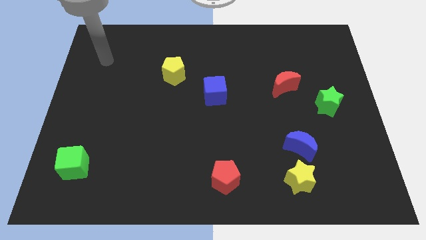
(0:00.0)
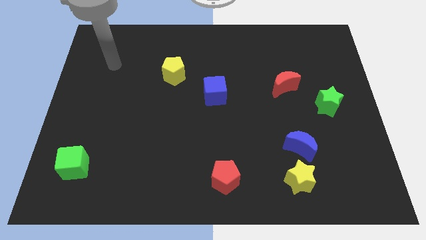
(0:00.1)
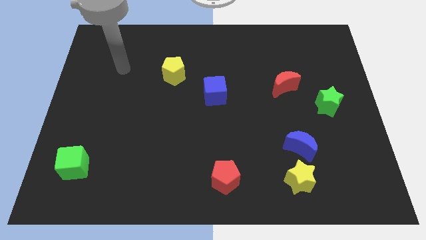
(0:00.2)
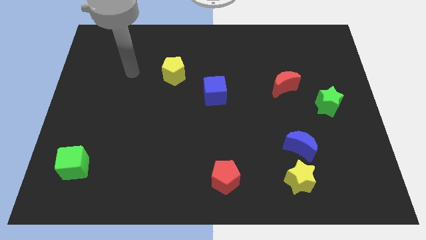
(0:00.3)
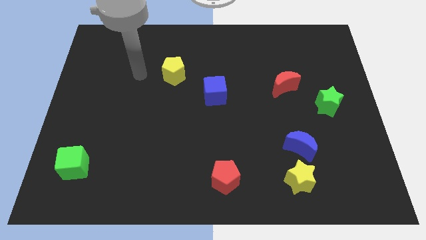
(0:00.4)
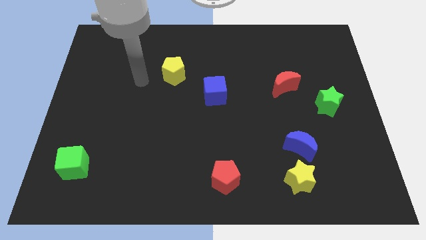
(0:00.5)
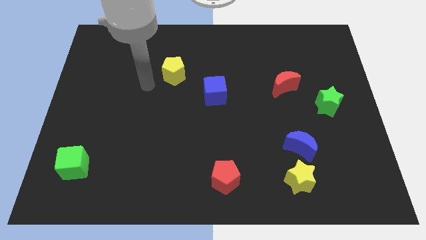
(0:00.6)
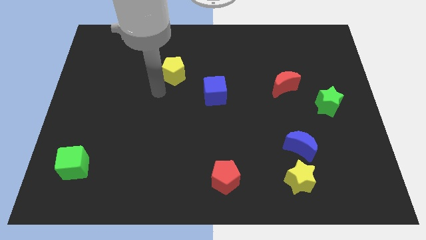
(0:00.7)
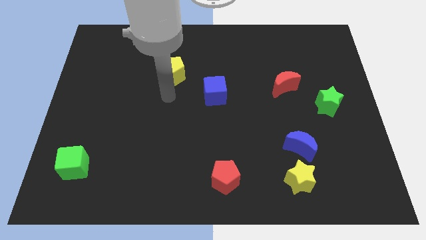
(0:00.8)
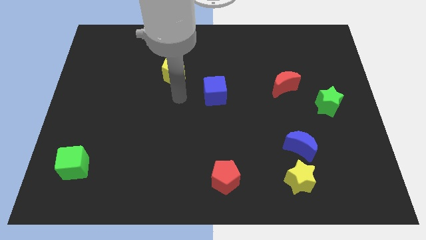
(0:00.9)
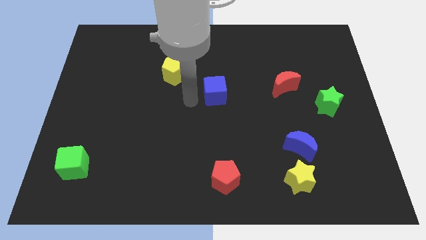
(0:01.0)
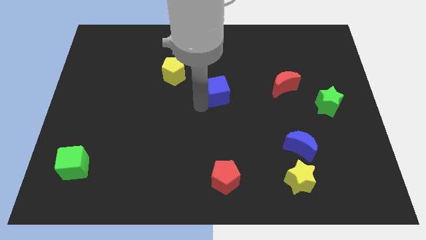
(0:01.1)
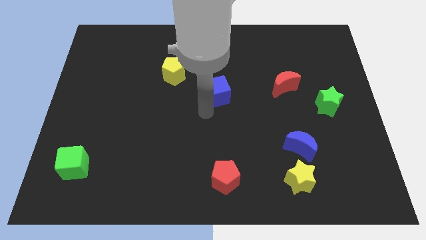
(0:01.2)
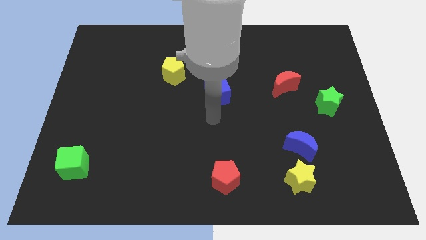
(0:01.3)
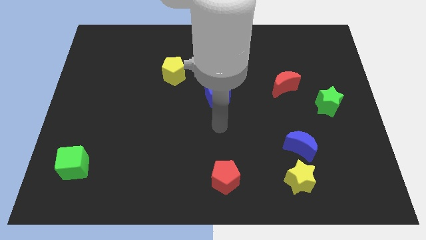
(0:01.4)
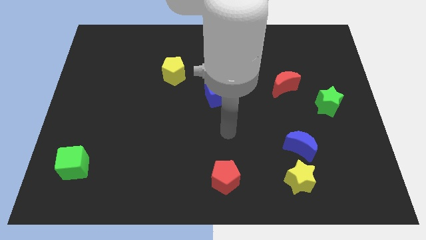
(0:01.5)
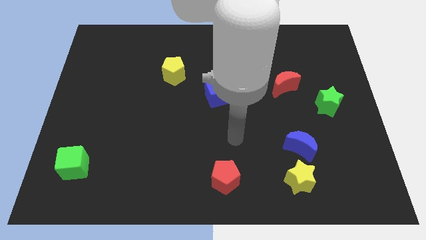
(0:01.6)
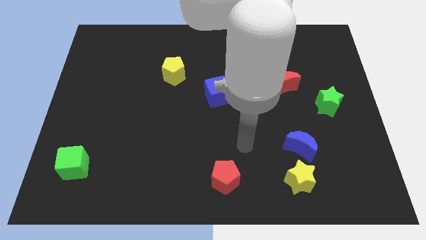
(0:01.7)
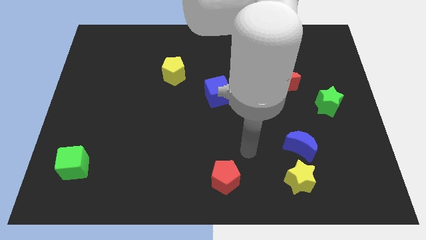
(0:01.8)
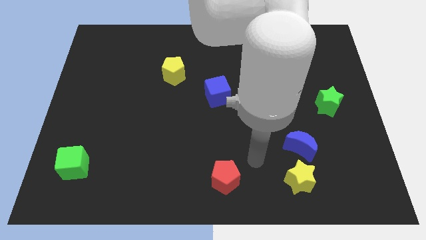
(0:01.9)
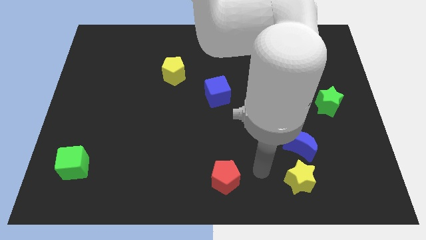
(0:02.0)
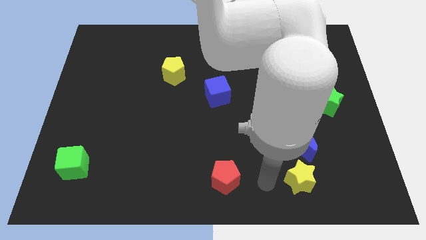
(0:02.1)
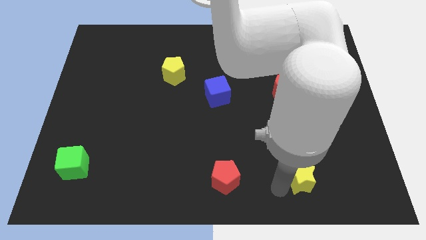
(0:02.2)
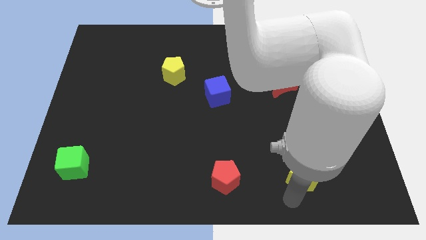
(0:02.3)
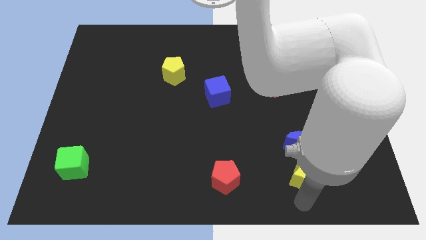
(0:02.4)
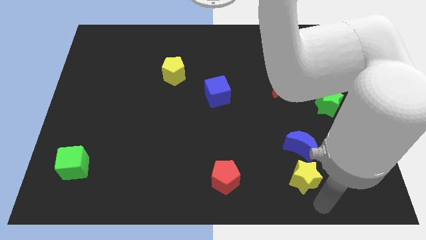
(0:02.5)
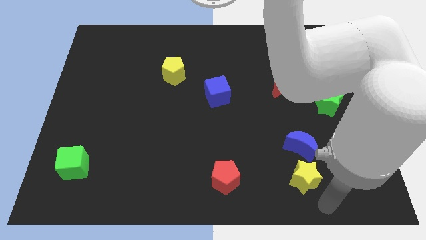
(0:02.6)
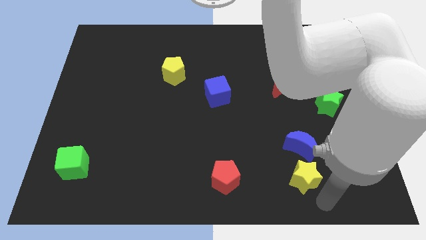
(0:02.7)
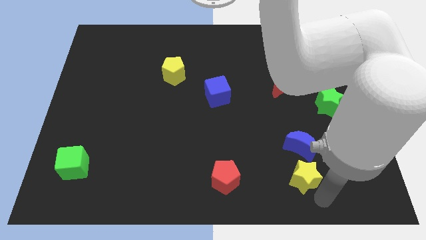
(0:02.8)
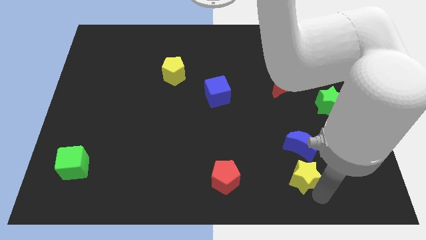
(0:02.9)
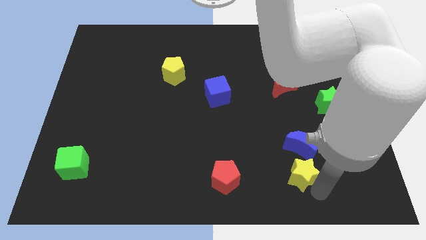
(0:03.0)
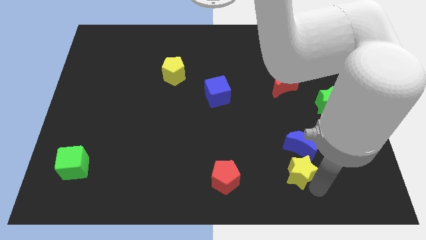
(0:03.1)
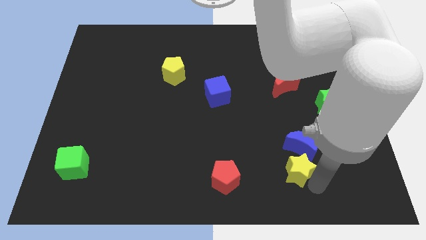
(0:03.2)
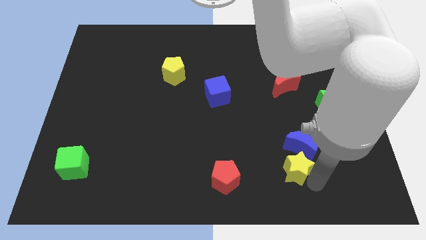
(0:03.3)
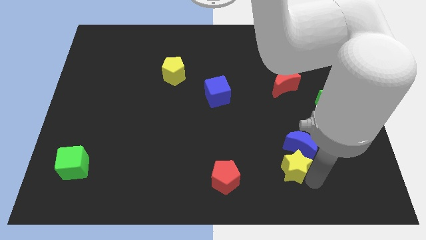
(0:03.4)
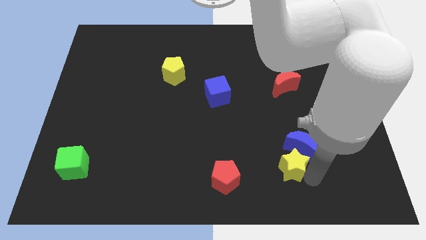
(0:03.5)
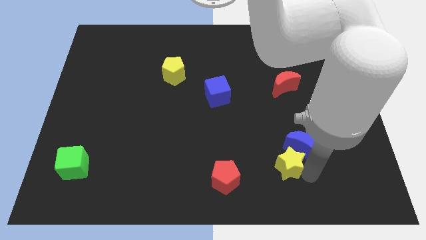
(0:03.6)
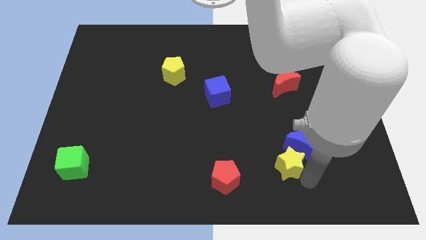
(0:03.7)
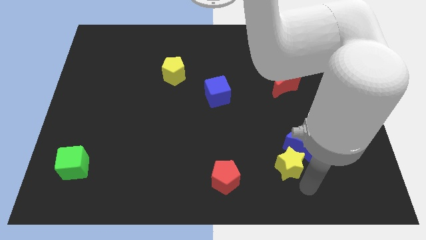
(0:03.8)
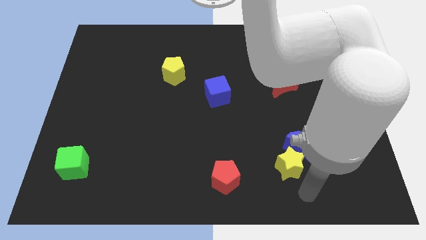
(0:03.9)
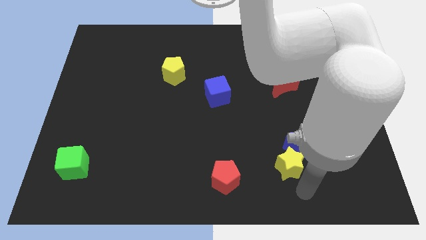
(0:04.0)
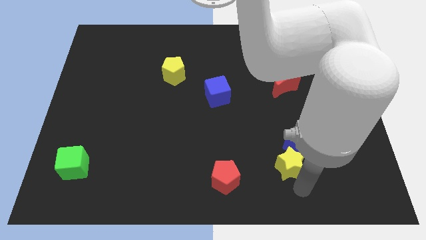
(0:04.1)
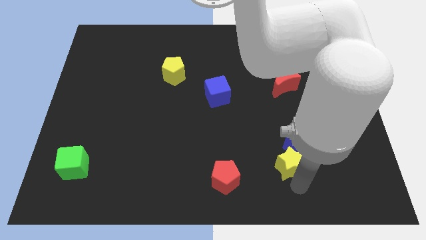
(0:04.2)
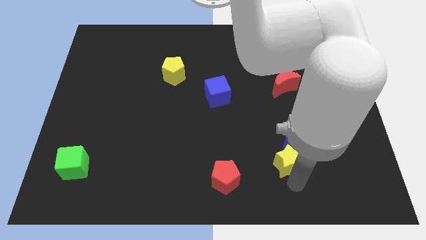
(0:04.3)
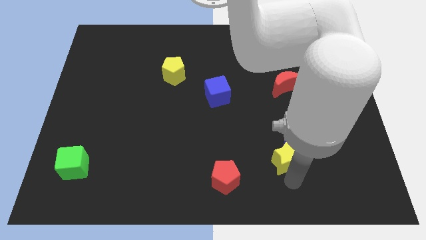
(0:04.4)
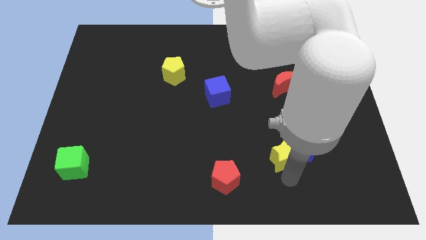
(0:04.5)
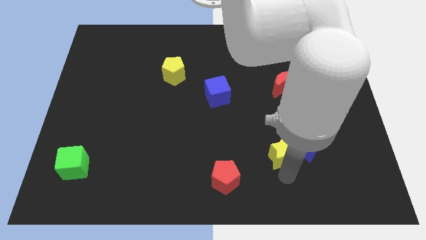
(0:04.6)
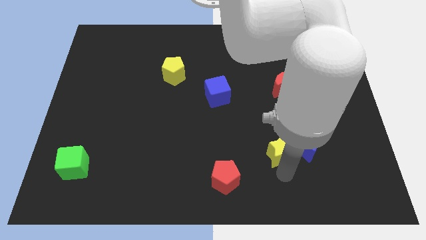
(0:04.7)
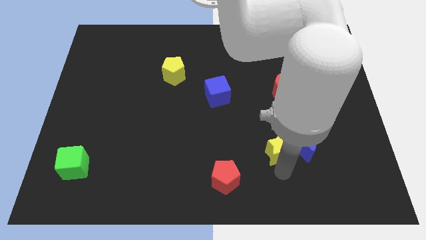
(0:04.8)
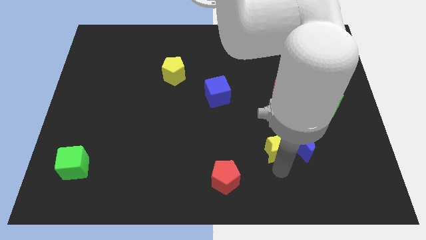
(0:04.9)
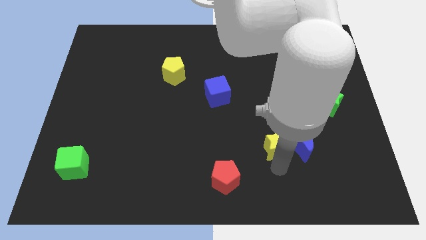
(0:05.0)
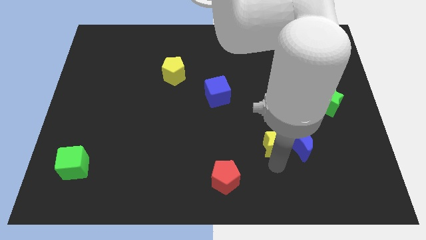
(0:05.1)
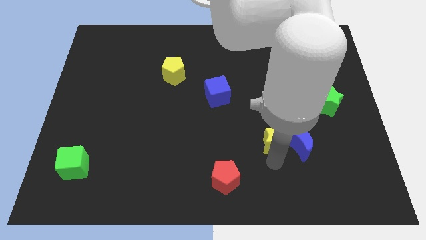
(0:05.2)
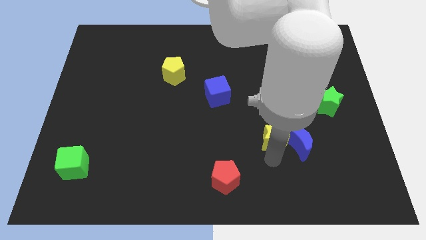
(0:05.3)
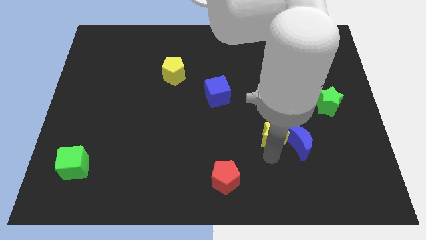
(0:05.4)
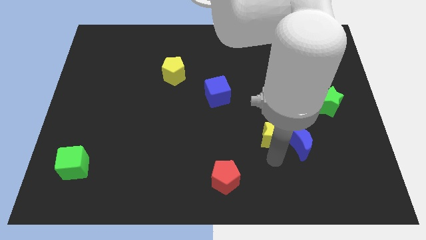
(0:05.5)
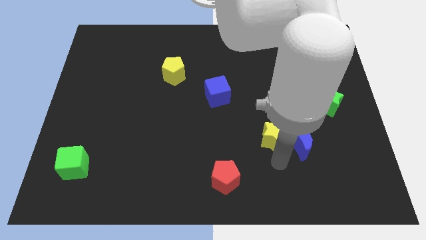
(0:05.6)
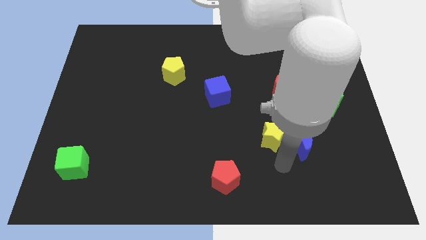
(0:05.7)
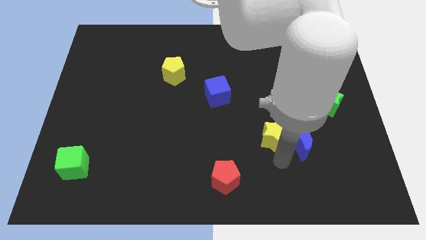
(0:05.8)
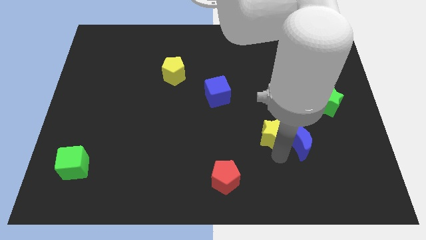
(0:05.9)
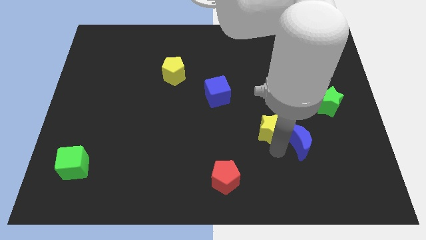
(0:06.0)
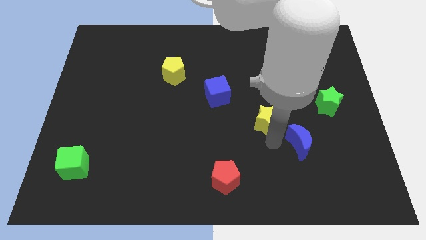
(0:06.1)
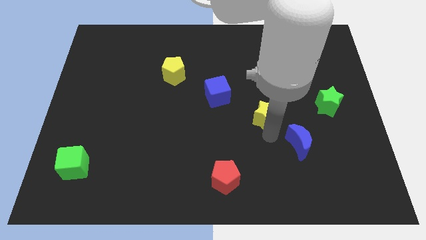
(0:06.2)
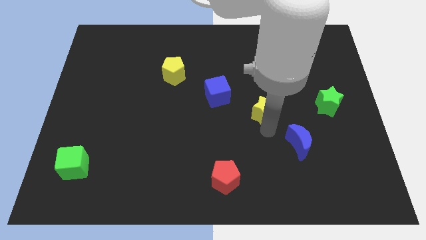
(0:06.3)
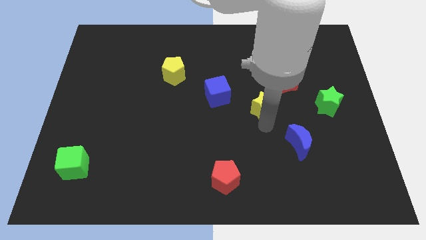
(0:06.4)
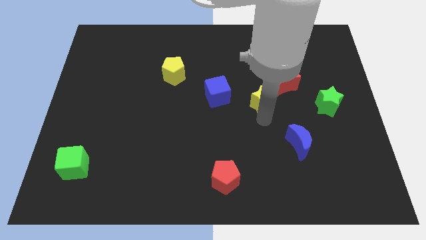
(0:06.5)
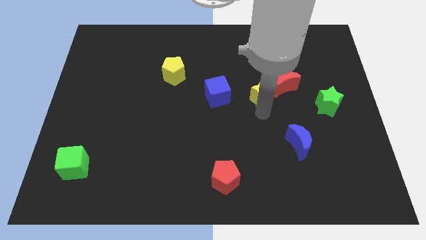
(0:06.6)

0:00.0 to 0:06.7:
move the yellow star upwards

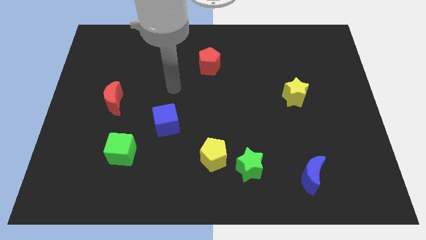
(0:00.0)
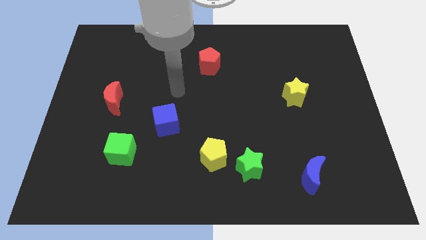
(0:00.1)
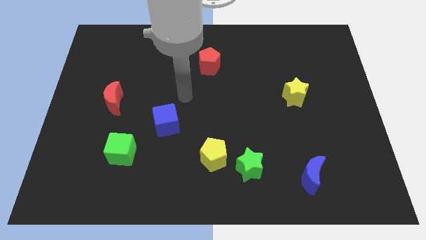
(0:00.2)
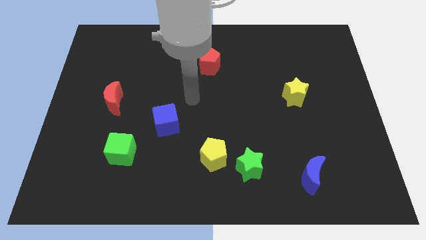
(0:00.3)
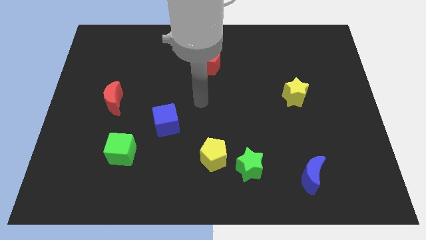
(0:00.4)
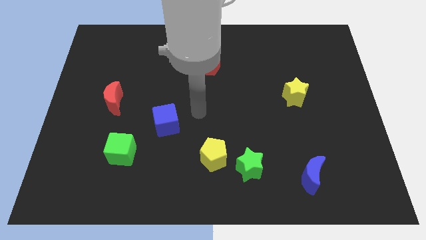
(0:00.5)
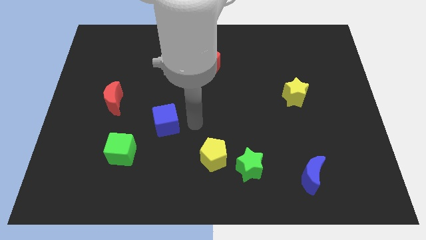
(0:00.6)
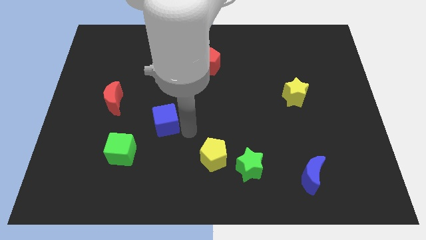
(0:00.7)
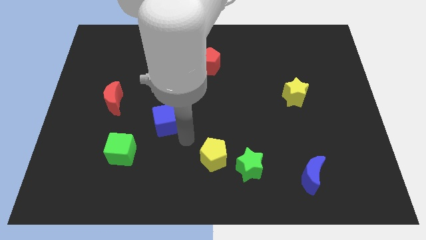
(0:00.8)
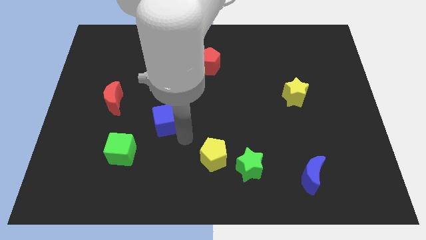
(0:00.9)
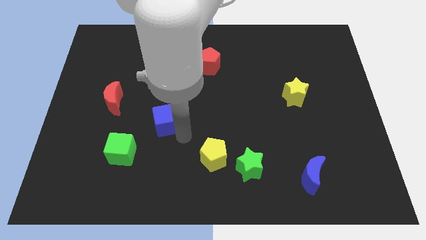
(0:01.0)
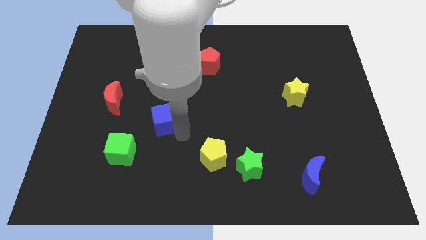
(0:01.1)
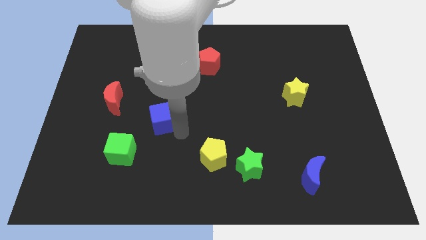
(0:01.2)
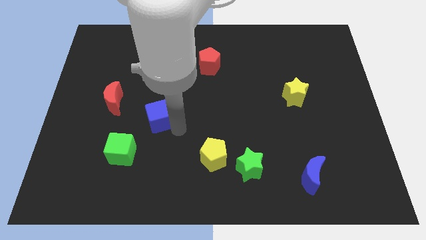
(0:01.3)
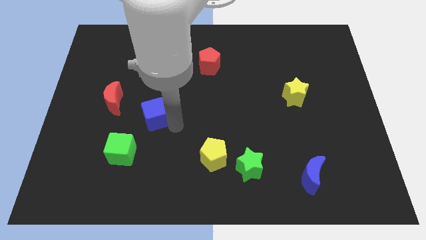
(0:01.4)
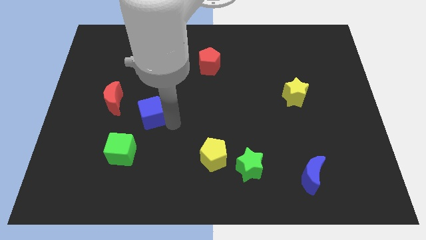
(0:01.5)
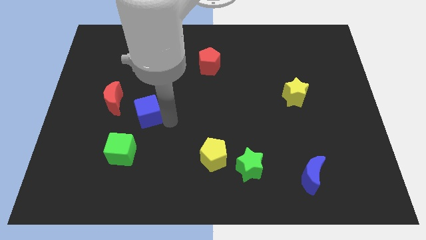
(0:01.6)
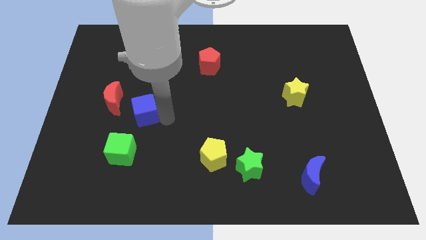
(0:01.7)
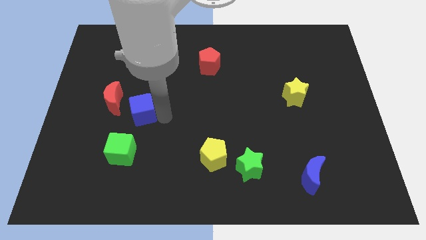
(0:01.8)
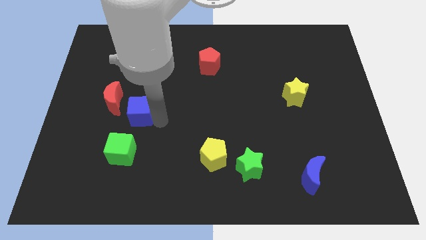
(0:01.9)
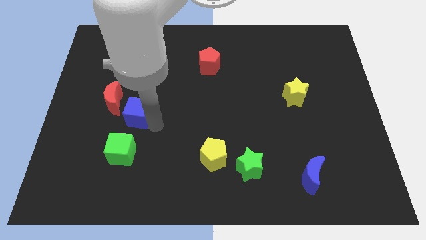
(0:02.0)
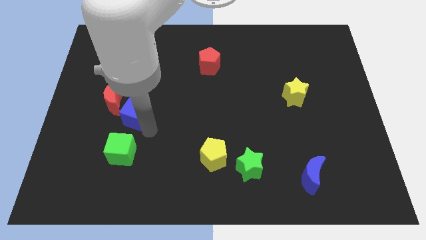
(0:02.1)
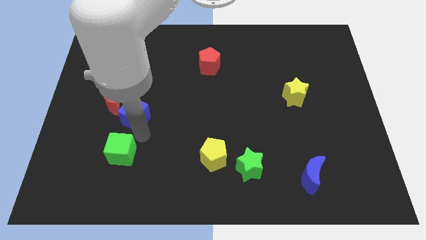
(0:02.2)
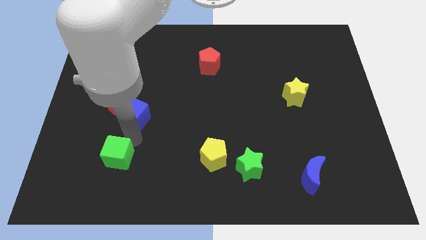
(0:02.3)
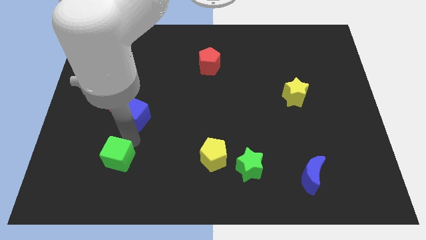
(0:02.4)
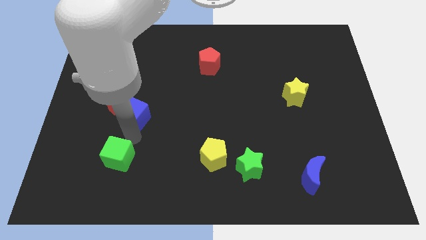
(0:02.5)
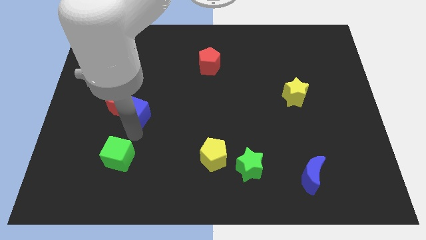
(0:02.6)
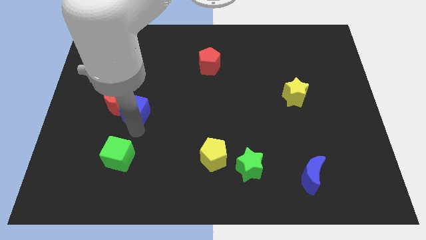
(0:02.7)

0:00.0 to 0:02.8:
slightly slide the blue cube diagonally upwards and to the left
